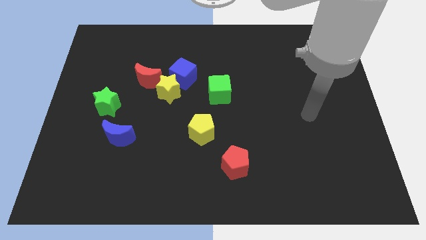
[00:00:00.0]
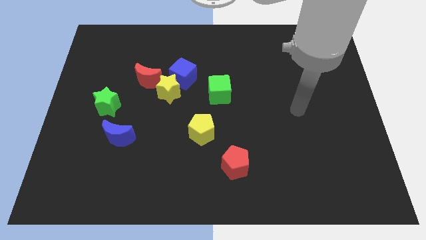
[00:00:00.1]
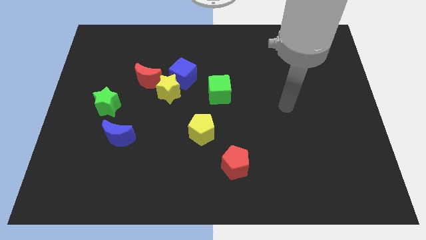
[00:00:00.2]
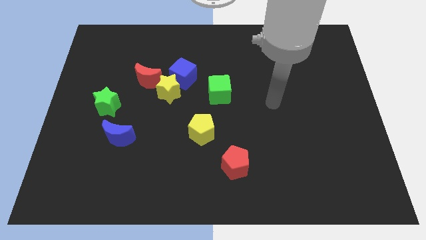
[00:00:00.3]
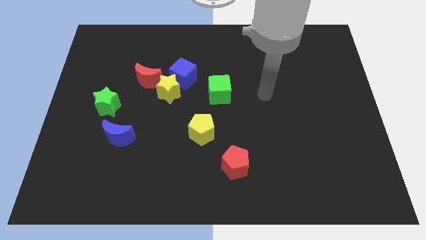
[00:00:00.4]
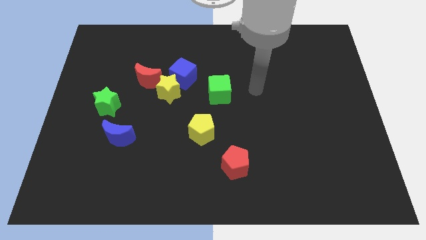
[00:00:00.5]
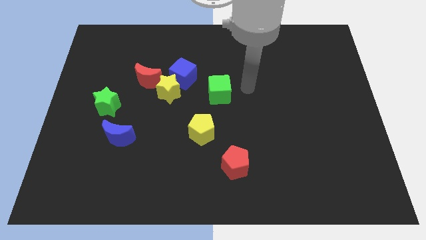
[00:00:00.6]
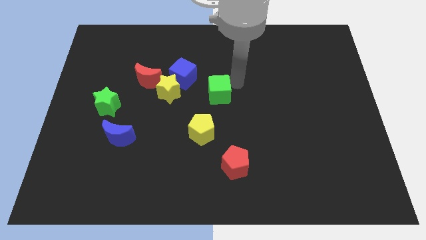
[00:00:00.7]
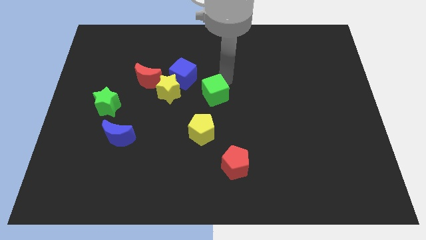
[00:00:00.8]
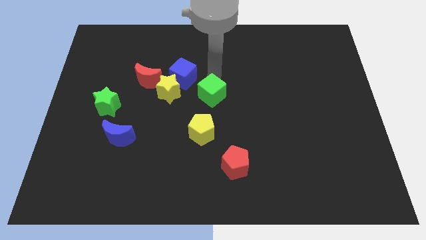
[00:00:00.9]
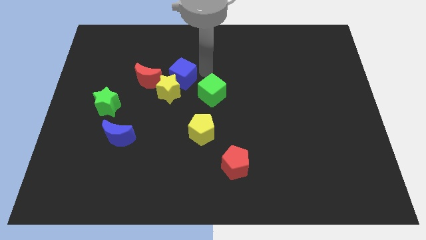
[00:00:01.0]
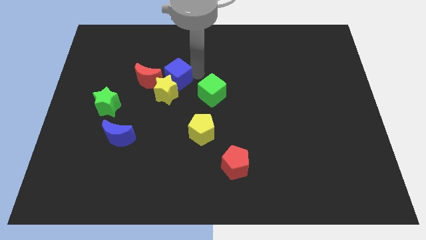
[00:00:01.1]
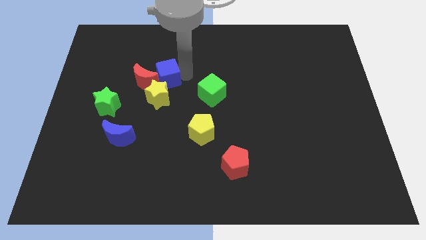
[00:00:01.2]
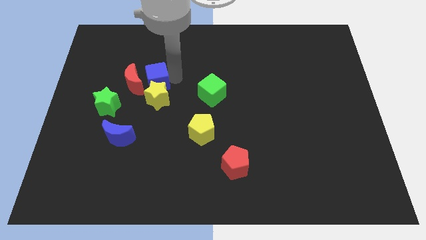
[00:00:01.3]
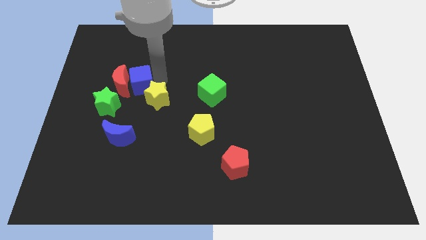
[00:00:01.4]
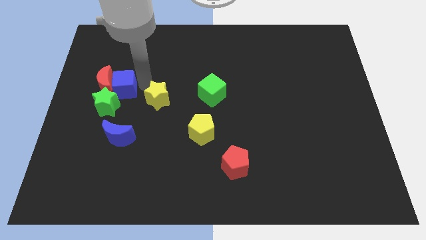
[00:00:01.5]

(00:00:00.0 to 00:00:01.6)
pull the yellow star apart from the blue cube and red moon

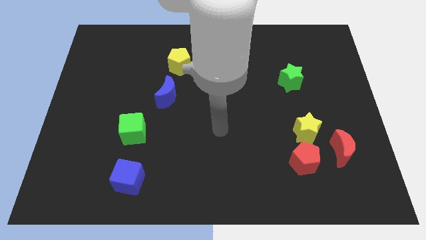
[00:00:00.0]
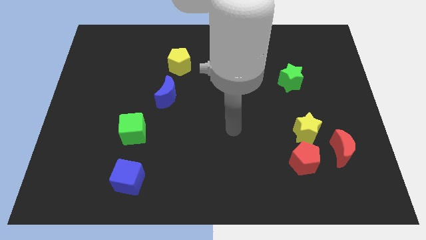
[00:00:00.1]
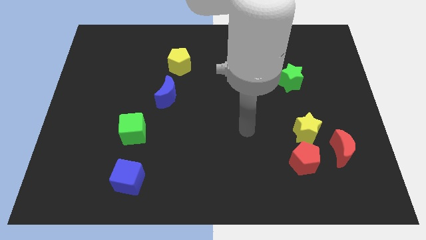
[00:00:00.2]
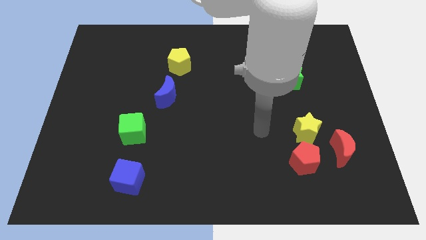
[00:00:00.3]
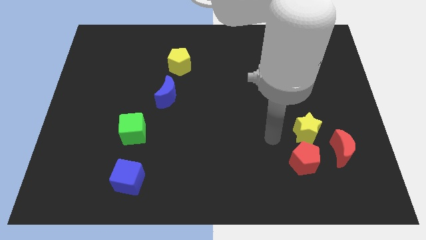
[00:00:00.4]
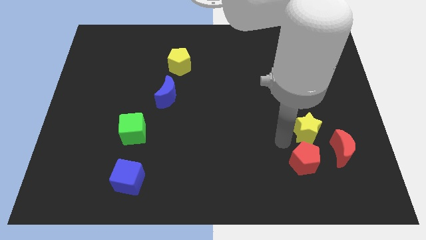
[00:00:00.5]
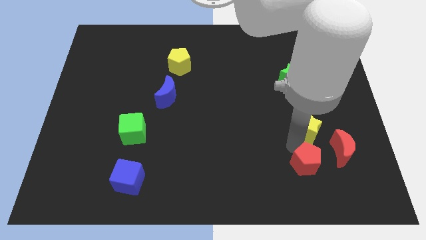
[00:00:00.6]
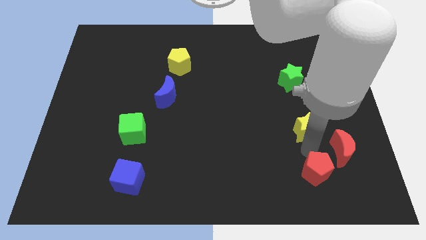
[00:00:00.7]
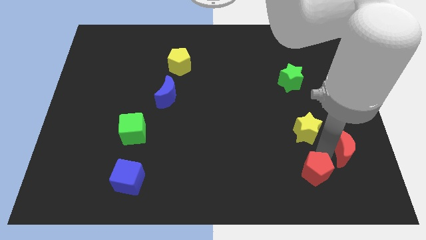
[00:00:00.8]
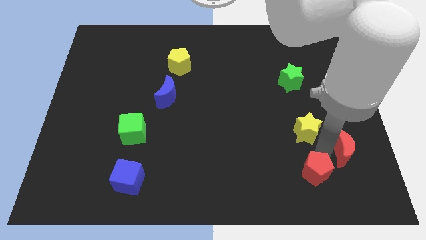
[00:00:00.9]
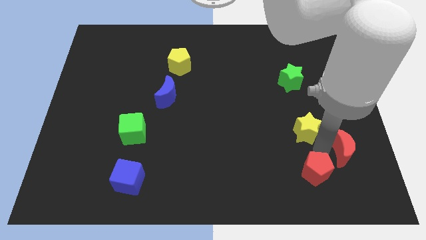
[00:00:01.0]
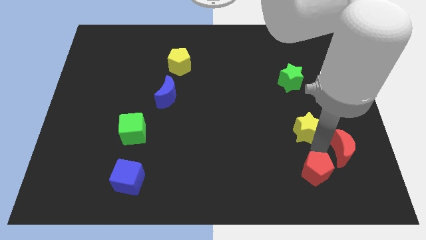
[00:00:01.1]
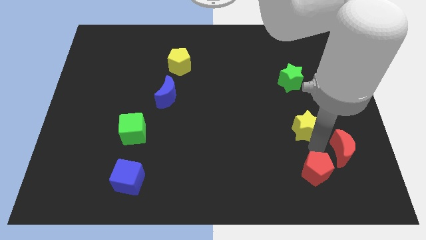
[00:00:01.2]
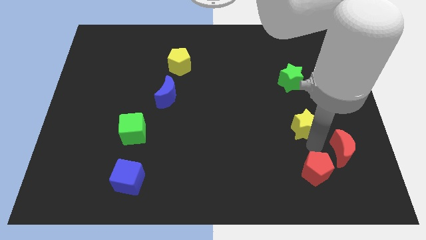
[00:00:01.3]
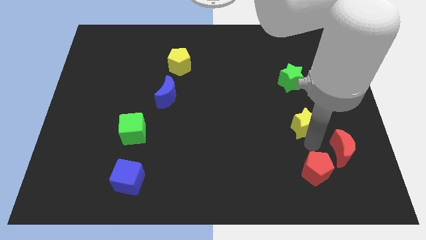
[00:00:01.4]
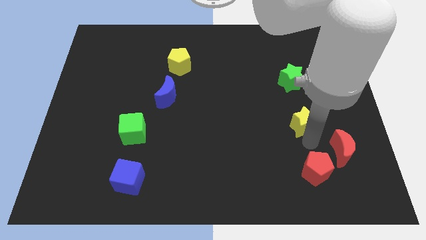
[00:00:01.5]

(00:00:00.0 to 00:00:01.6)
separate the yellow star from the red pentagon and red moon

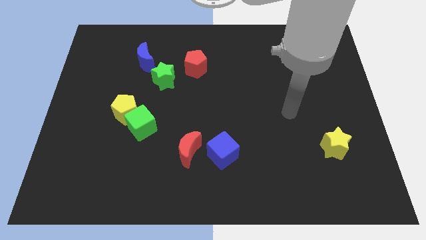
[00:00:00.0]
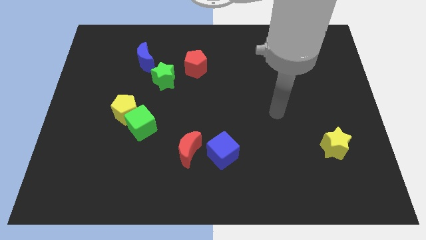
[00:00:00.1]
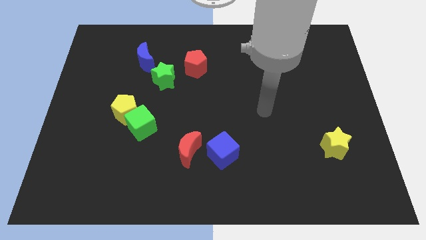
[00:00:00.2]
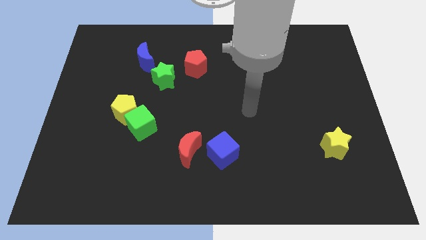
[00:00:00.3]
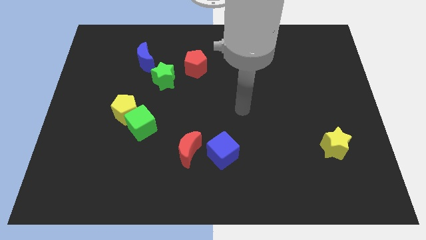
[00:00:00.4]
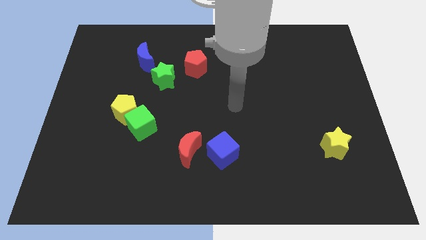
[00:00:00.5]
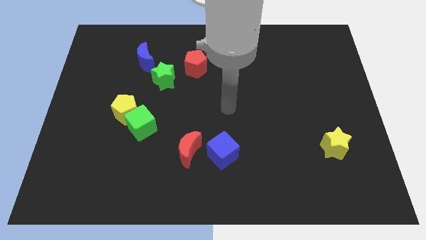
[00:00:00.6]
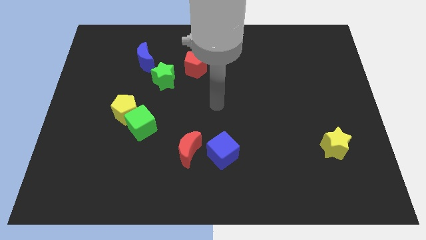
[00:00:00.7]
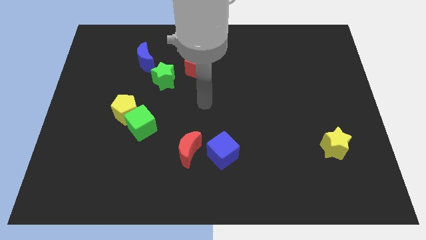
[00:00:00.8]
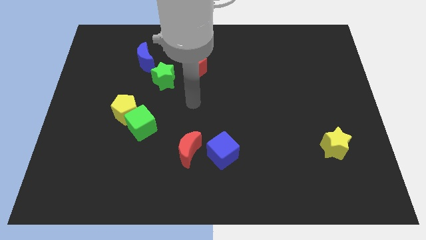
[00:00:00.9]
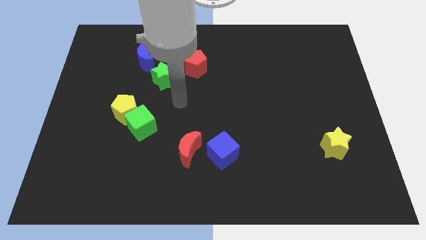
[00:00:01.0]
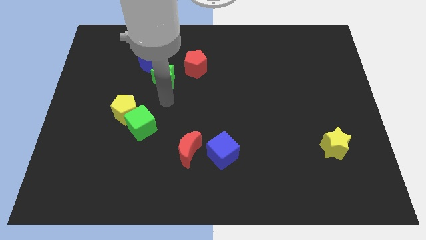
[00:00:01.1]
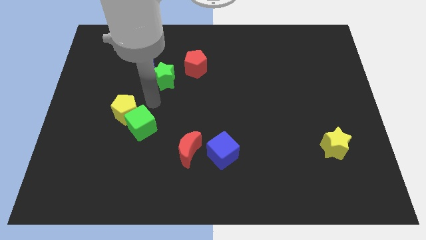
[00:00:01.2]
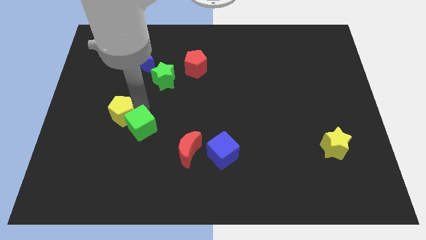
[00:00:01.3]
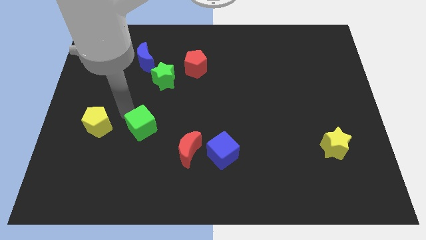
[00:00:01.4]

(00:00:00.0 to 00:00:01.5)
move the green cube away from the yellow pentagon

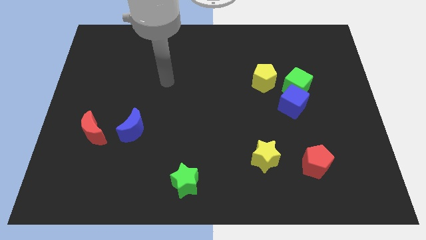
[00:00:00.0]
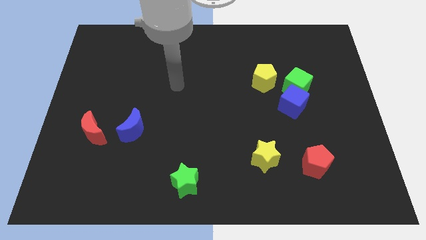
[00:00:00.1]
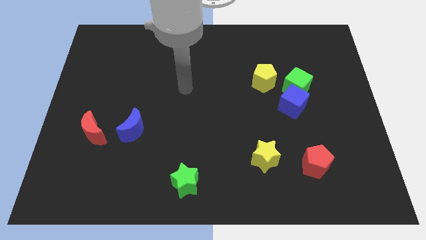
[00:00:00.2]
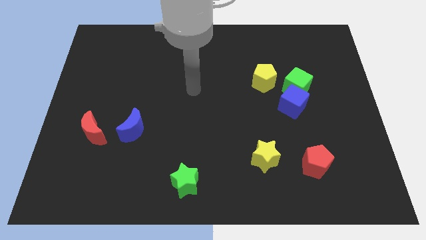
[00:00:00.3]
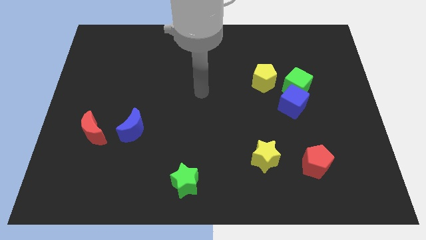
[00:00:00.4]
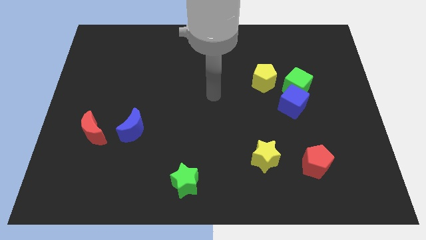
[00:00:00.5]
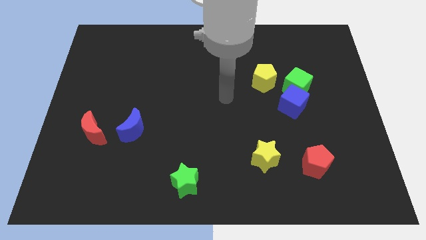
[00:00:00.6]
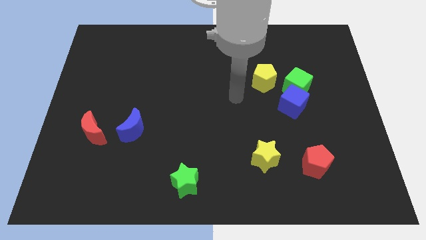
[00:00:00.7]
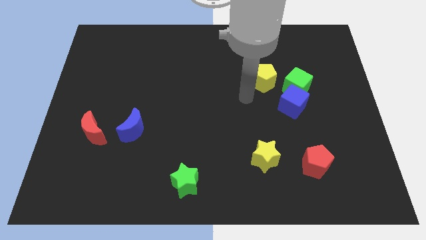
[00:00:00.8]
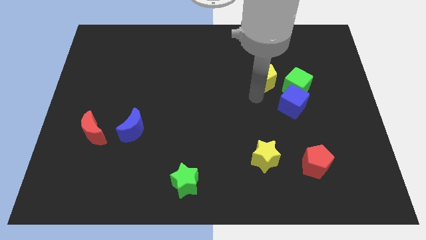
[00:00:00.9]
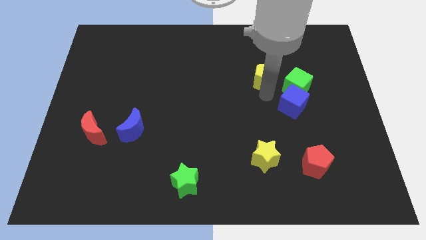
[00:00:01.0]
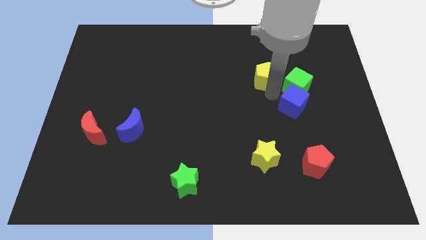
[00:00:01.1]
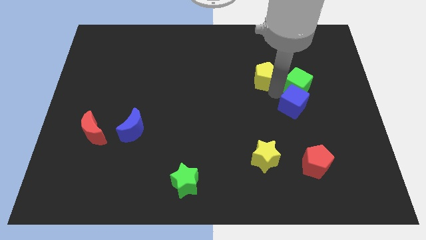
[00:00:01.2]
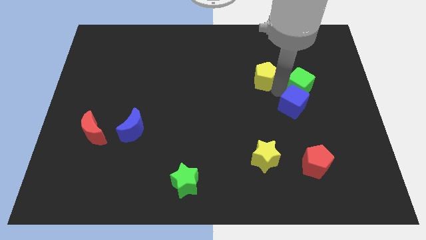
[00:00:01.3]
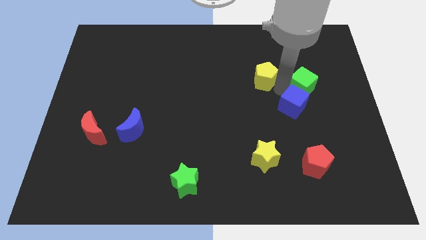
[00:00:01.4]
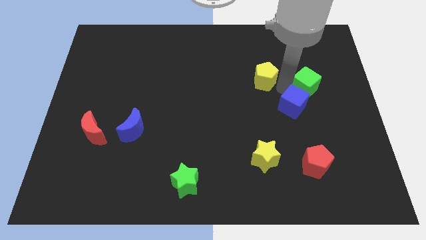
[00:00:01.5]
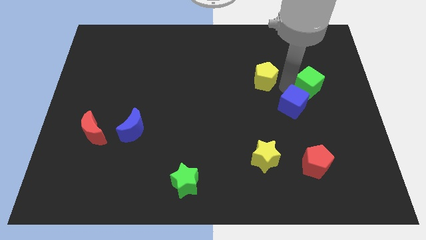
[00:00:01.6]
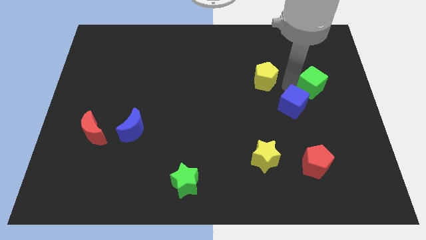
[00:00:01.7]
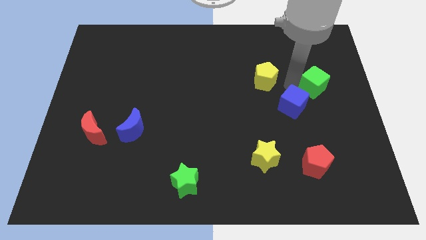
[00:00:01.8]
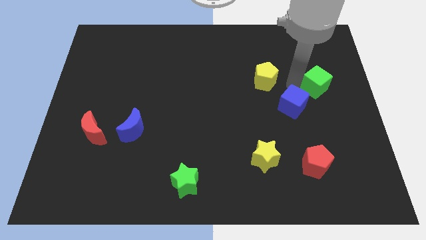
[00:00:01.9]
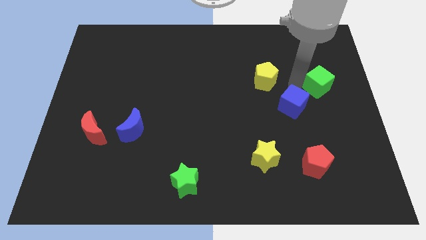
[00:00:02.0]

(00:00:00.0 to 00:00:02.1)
move the green cube away from the blue cube and yellow pentagon

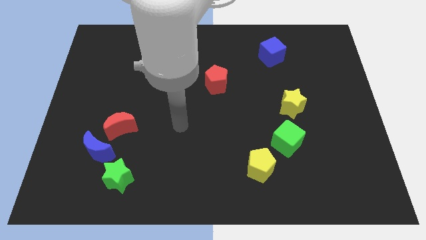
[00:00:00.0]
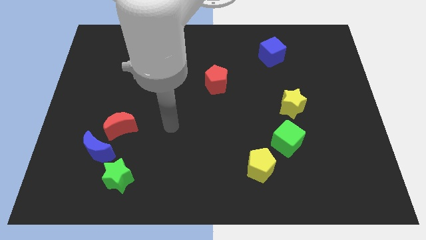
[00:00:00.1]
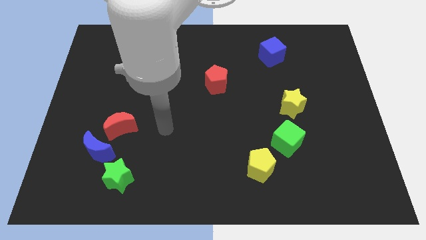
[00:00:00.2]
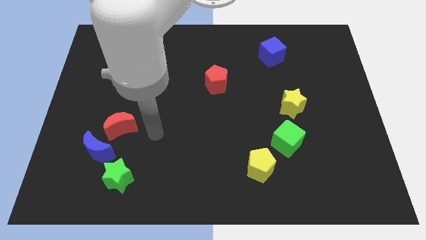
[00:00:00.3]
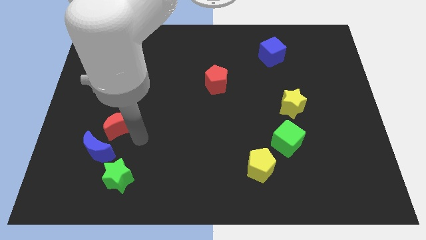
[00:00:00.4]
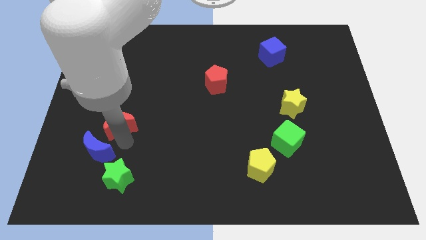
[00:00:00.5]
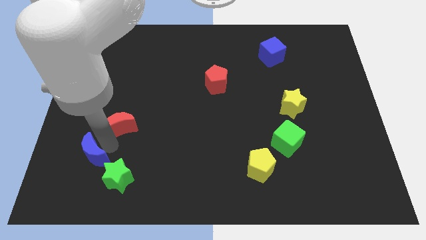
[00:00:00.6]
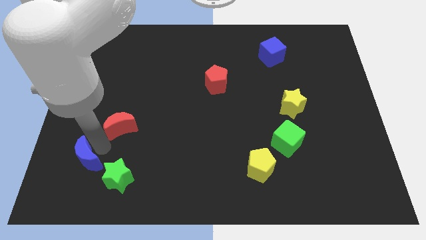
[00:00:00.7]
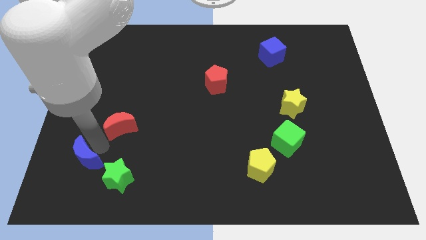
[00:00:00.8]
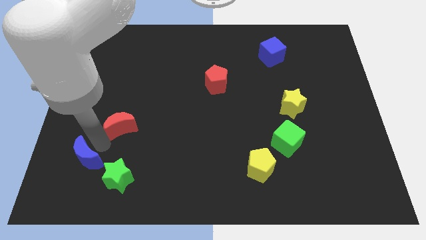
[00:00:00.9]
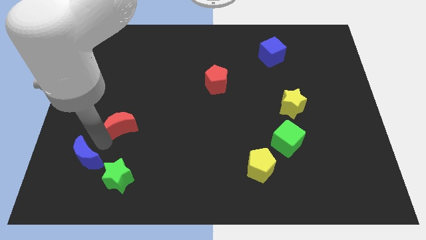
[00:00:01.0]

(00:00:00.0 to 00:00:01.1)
move the red moon away from the blue moon

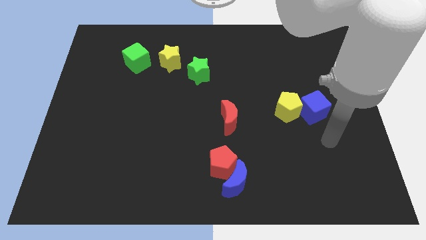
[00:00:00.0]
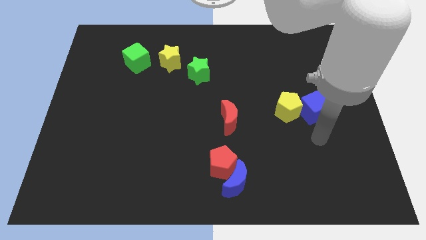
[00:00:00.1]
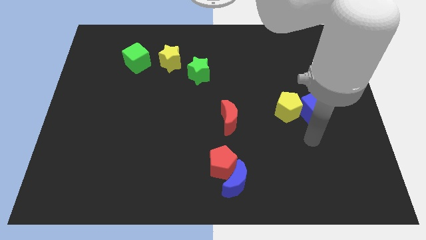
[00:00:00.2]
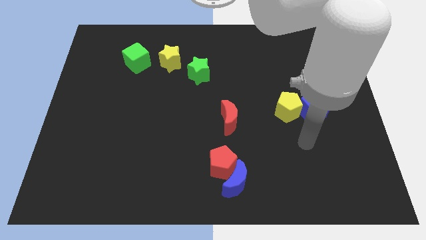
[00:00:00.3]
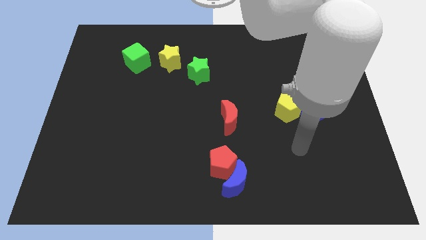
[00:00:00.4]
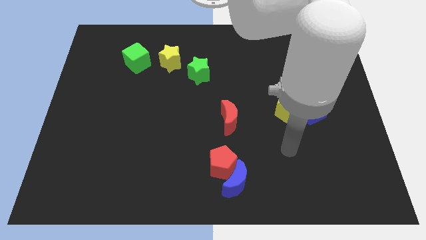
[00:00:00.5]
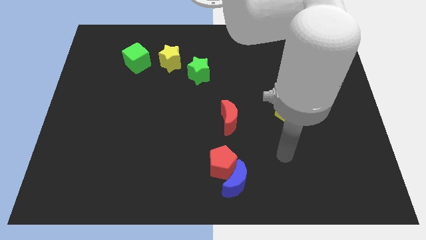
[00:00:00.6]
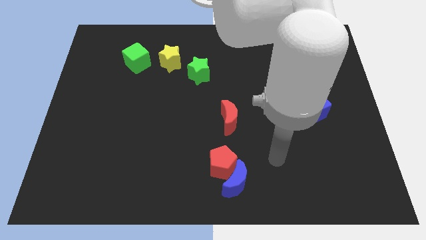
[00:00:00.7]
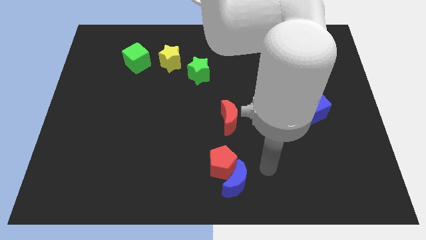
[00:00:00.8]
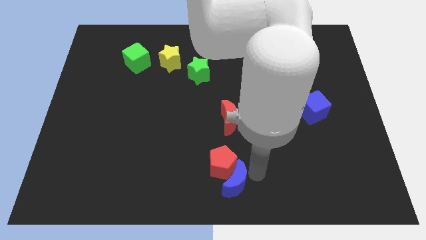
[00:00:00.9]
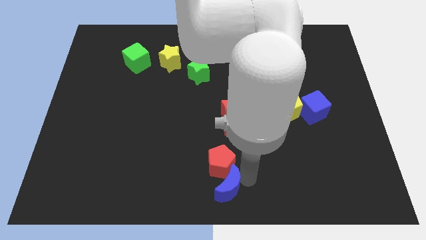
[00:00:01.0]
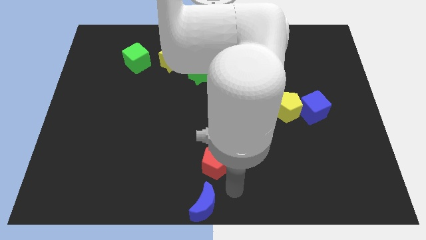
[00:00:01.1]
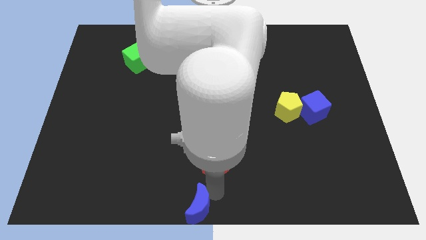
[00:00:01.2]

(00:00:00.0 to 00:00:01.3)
pull the red pentagon apart from the blue moon
